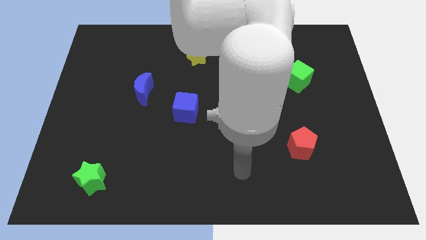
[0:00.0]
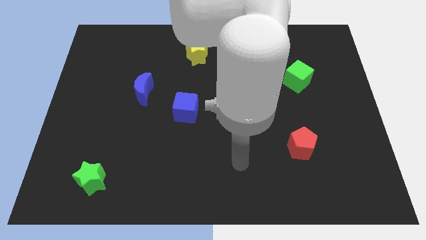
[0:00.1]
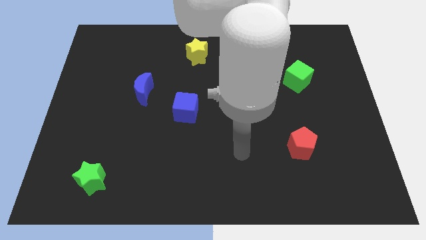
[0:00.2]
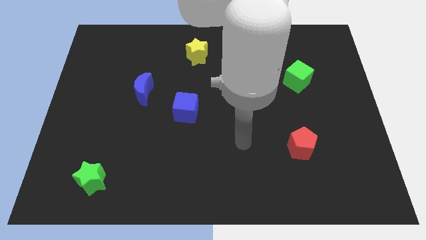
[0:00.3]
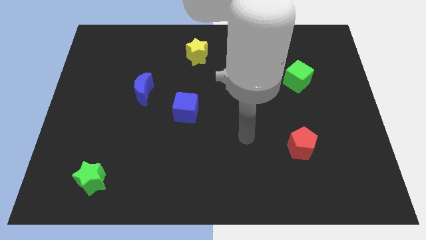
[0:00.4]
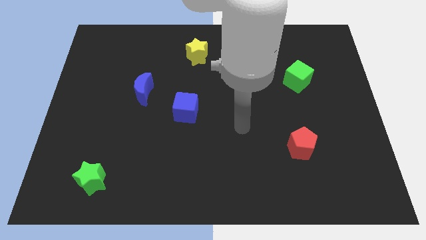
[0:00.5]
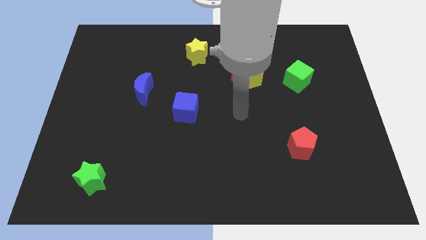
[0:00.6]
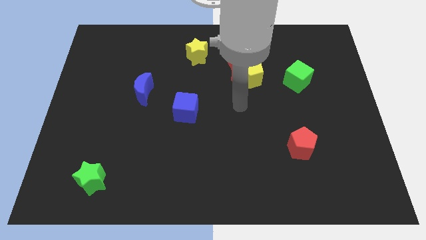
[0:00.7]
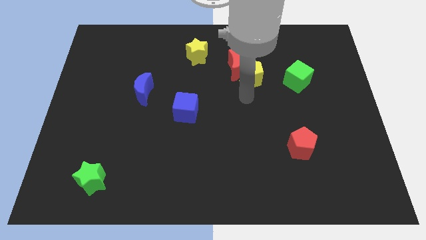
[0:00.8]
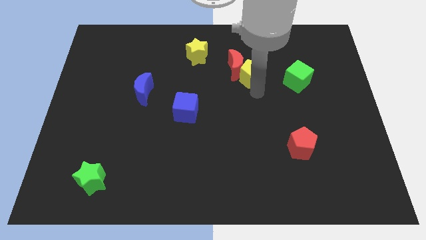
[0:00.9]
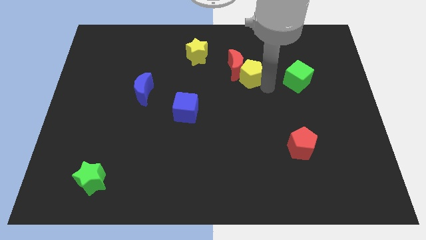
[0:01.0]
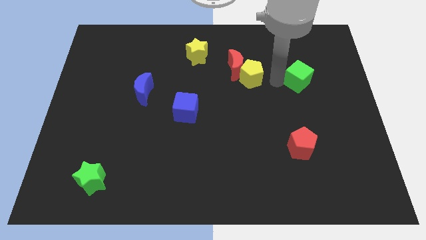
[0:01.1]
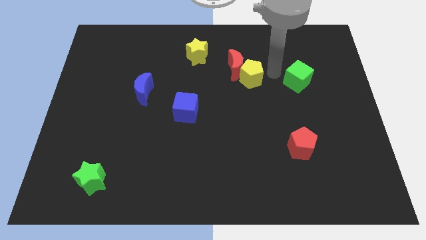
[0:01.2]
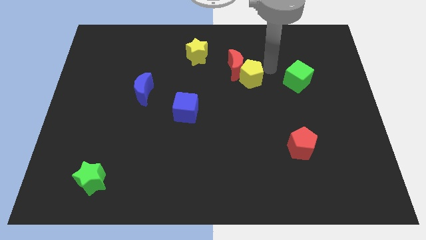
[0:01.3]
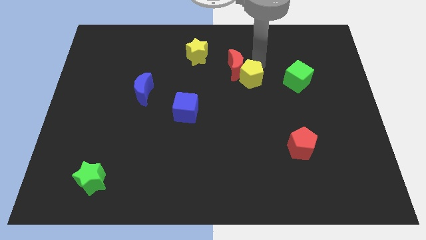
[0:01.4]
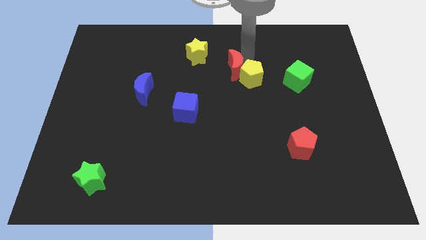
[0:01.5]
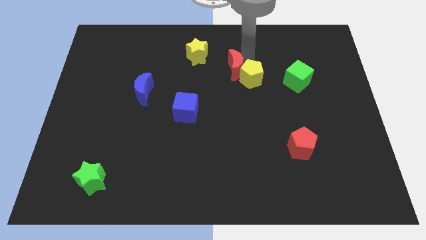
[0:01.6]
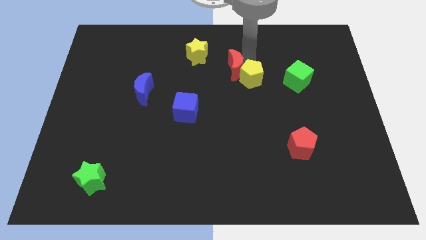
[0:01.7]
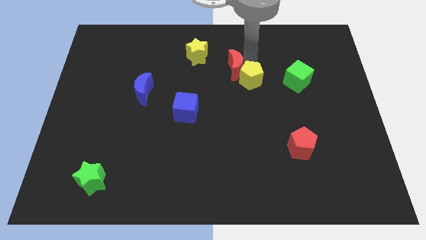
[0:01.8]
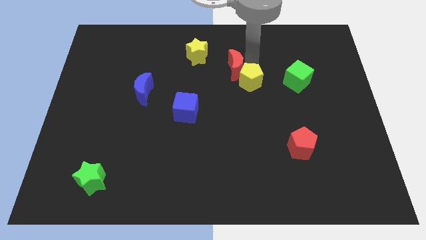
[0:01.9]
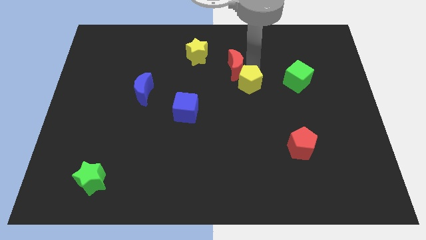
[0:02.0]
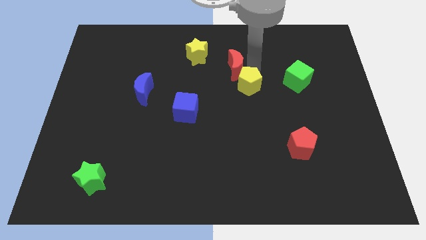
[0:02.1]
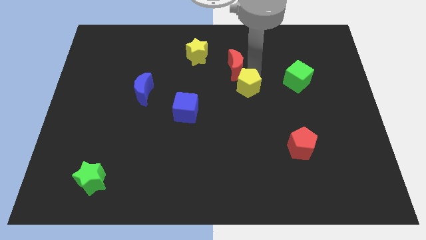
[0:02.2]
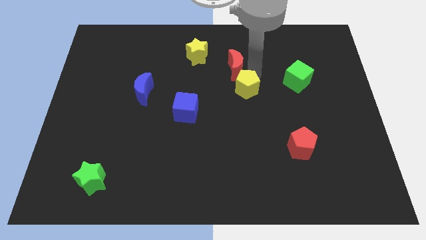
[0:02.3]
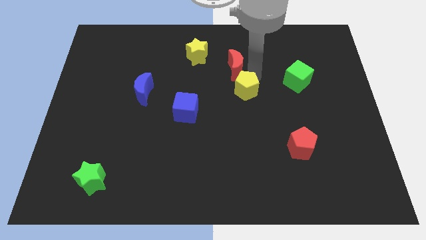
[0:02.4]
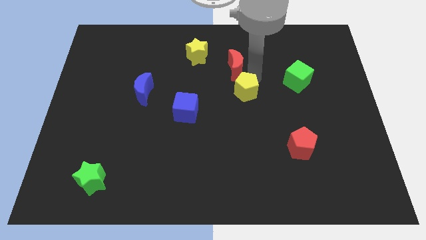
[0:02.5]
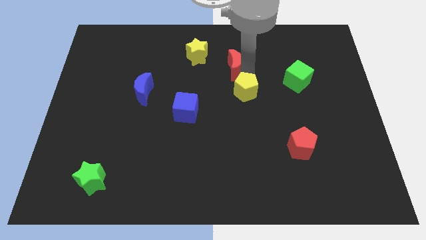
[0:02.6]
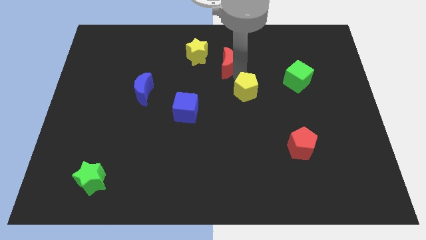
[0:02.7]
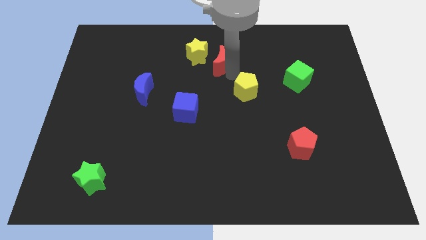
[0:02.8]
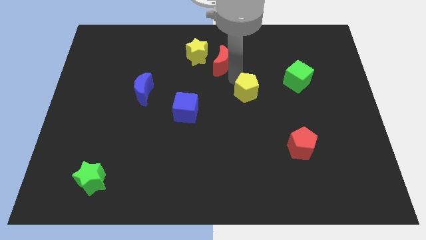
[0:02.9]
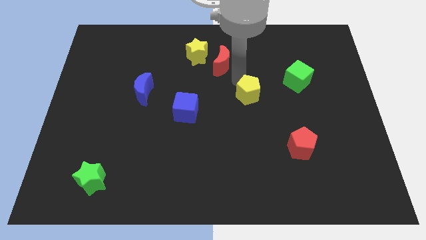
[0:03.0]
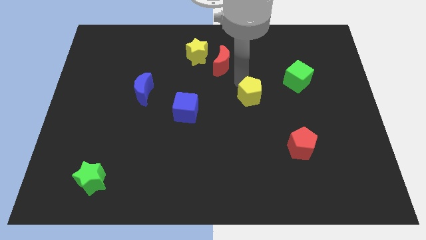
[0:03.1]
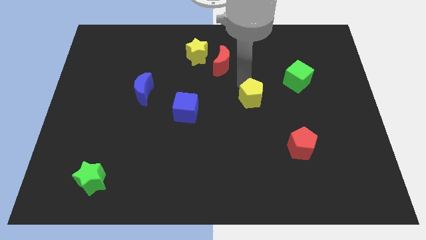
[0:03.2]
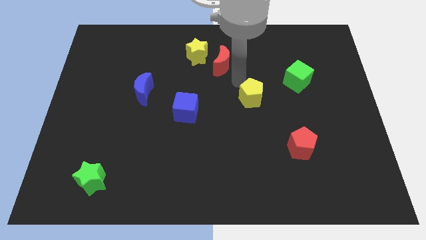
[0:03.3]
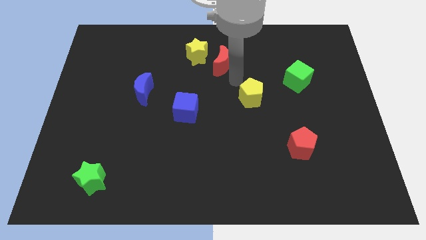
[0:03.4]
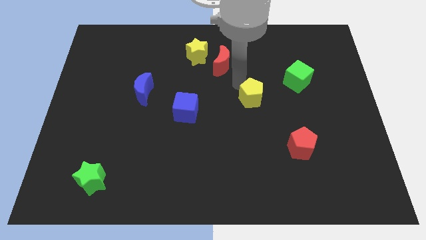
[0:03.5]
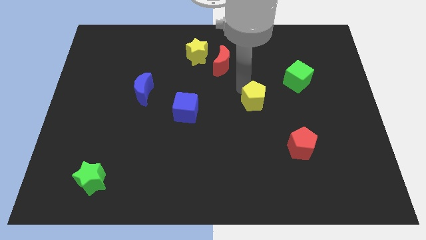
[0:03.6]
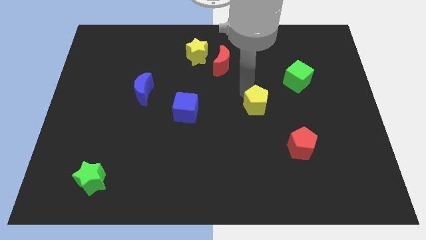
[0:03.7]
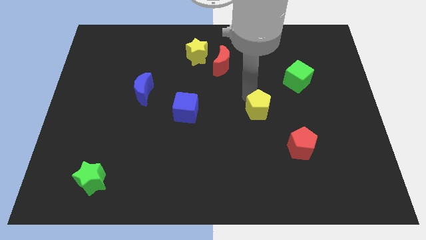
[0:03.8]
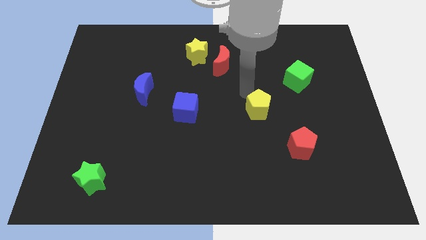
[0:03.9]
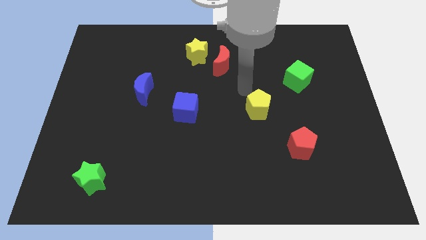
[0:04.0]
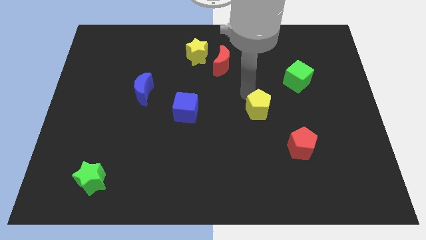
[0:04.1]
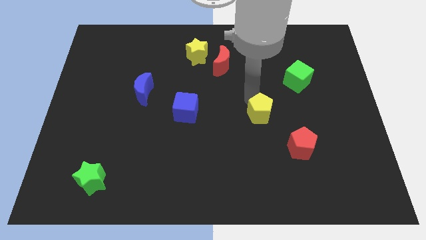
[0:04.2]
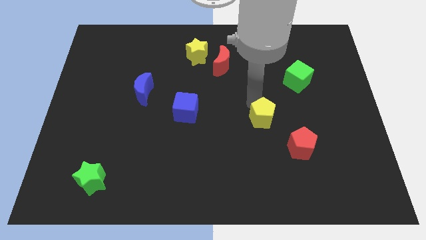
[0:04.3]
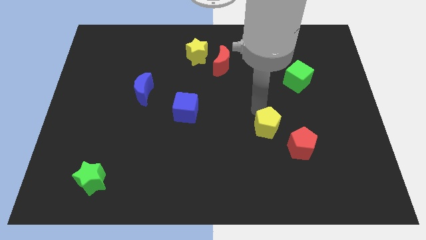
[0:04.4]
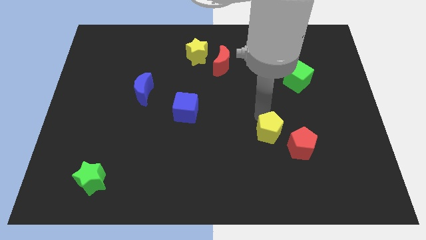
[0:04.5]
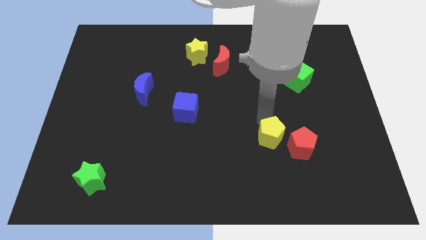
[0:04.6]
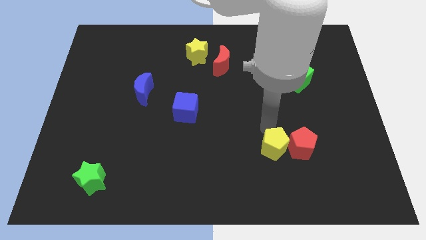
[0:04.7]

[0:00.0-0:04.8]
slide the yellow pentagon diagonally down and to the left of the red pentagon

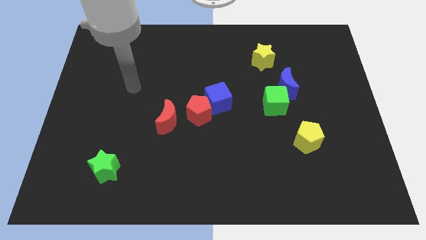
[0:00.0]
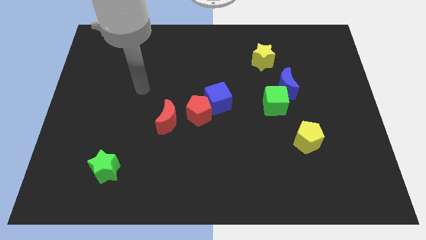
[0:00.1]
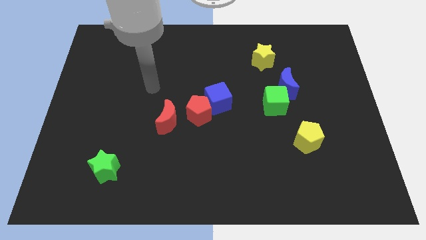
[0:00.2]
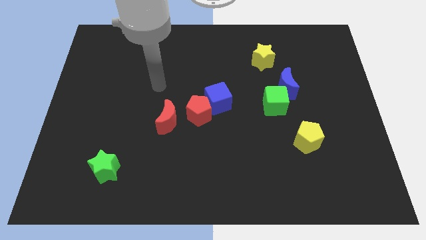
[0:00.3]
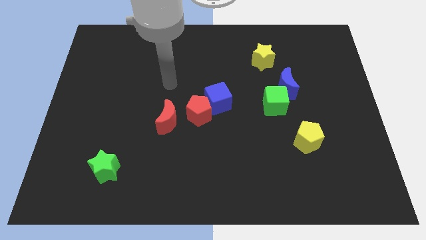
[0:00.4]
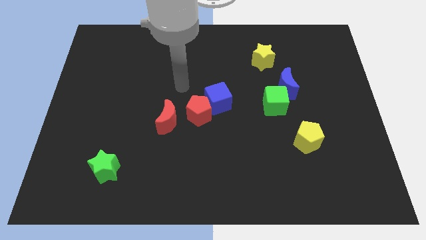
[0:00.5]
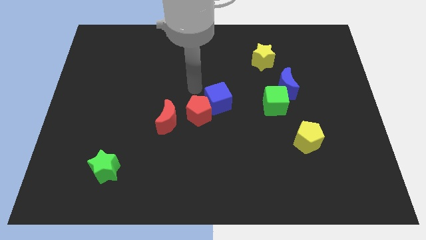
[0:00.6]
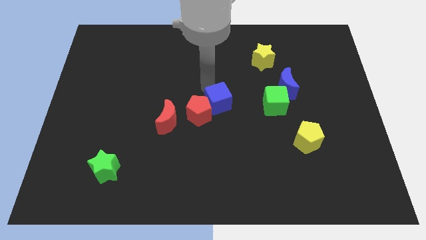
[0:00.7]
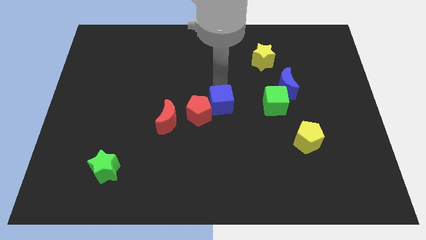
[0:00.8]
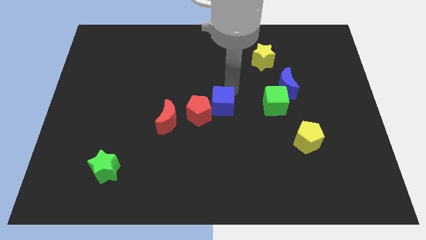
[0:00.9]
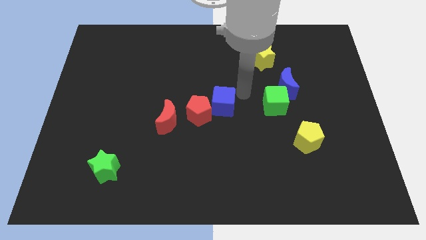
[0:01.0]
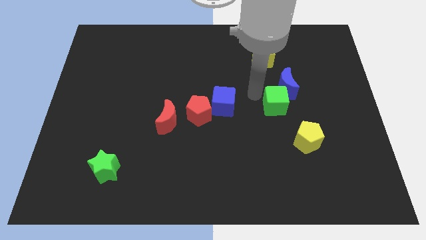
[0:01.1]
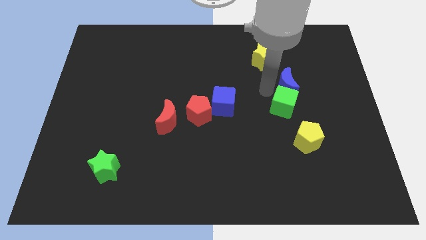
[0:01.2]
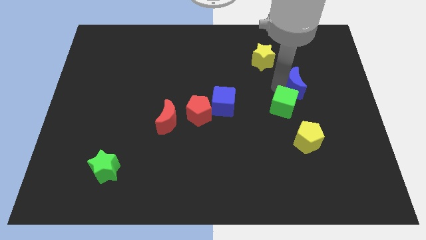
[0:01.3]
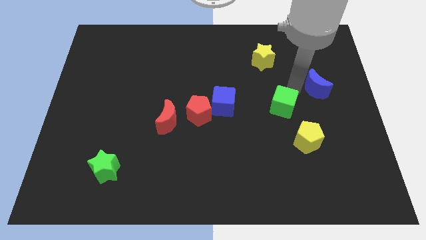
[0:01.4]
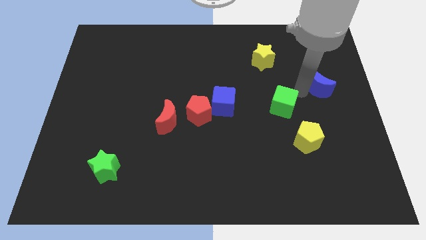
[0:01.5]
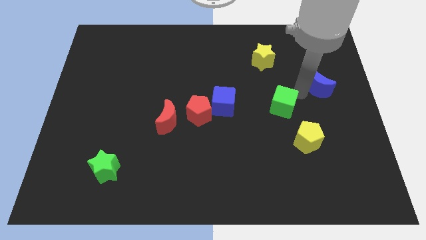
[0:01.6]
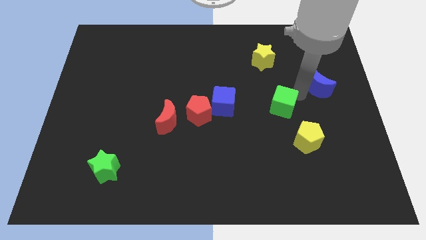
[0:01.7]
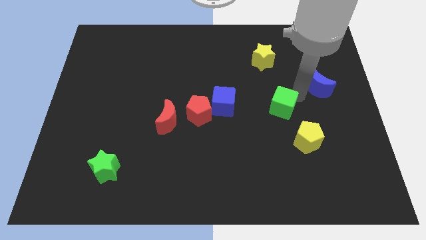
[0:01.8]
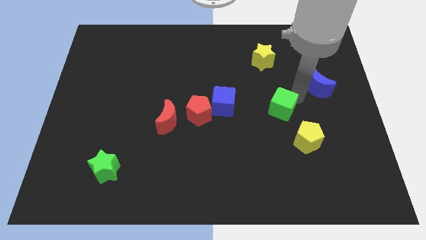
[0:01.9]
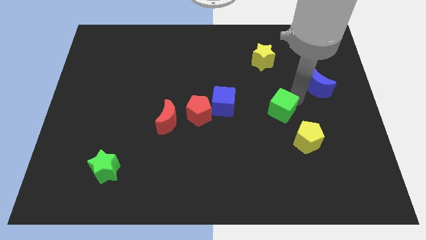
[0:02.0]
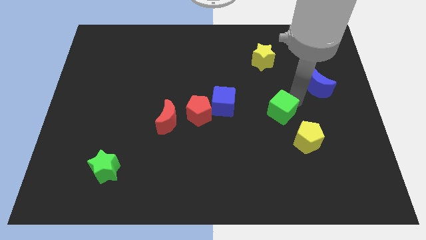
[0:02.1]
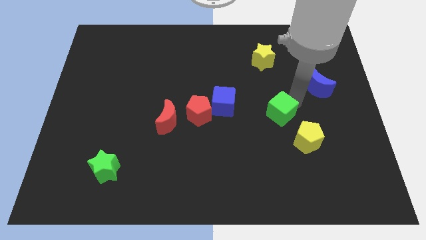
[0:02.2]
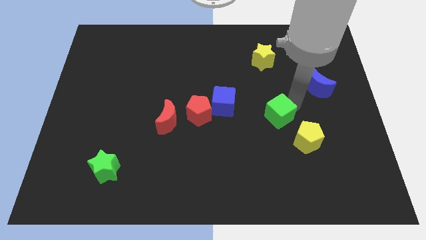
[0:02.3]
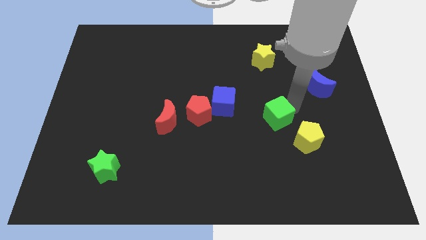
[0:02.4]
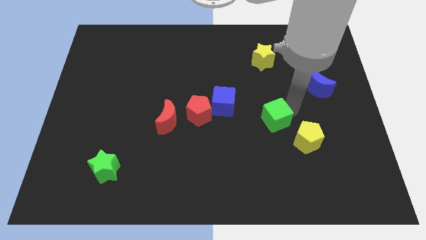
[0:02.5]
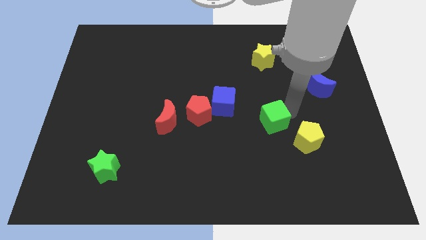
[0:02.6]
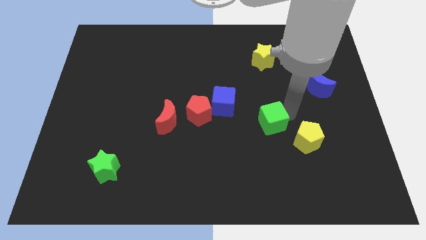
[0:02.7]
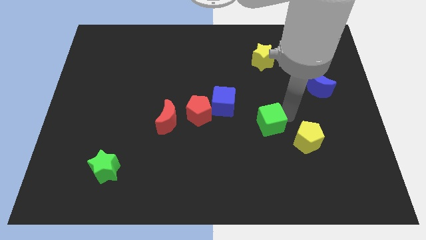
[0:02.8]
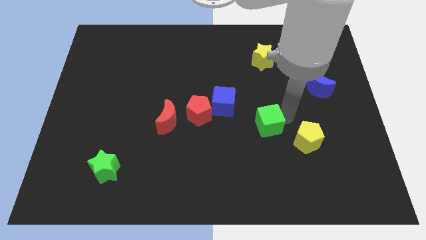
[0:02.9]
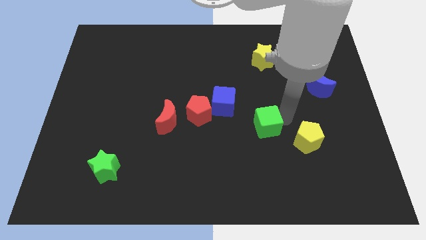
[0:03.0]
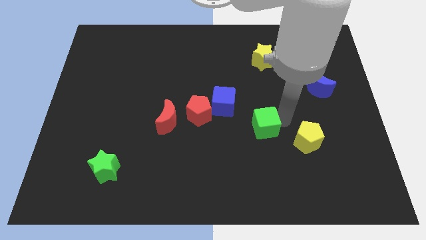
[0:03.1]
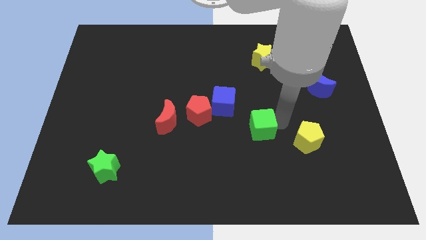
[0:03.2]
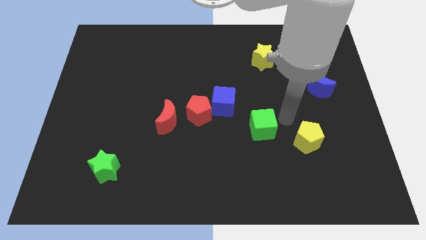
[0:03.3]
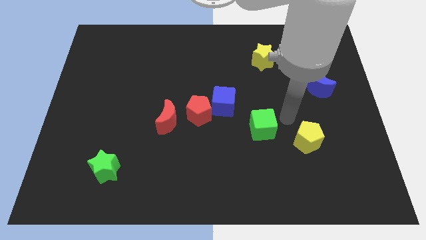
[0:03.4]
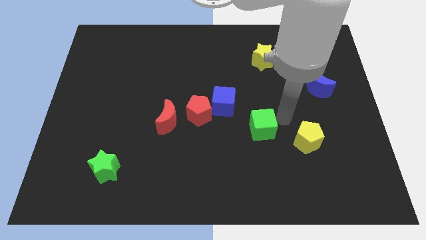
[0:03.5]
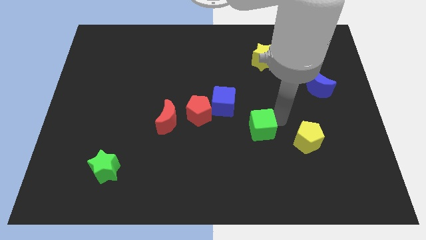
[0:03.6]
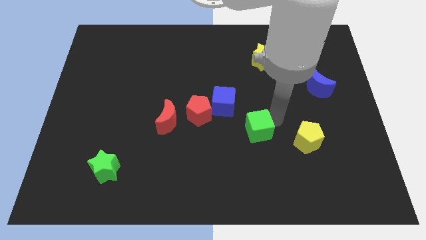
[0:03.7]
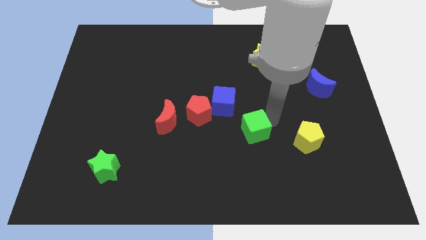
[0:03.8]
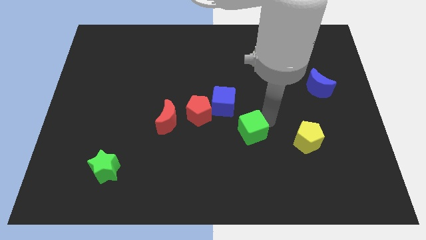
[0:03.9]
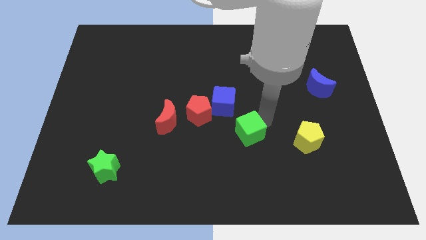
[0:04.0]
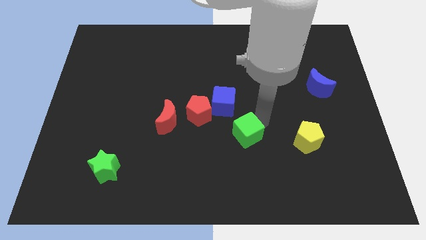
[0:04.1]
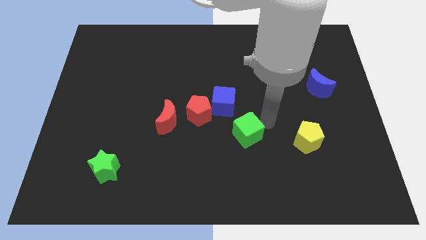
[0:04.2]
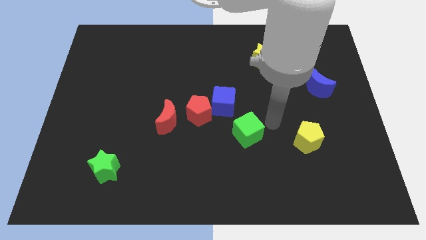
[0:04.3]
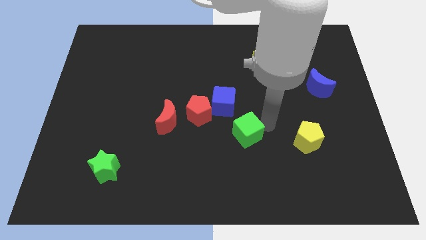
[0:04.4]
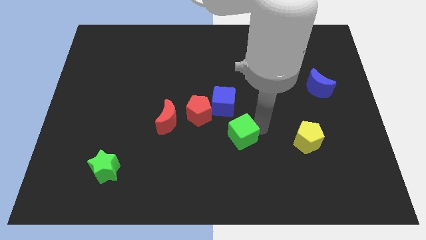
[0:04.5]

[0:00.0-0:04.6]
move the green cube to the bottom side of the blue cube
